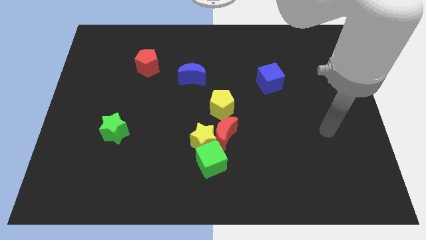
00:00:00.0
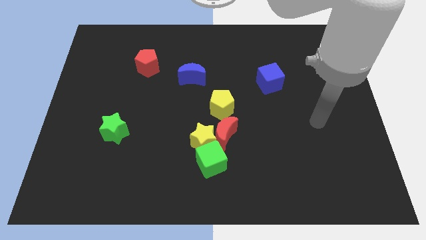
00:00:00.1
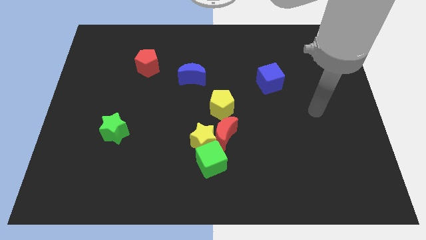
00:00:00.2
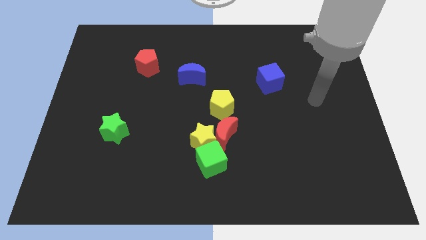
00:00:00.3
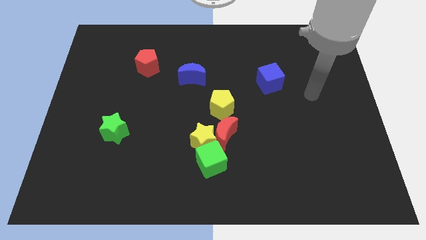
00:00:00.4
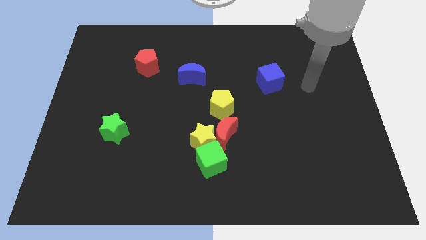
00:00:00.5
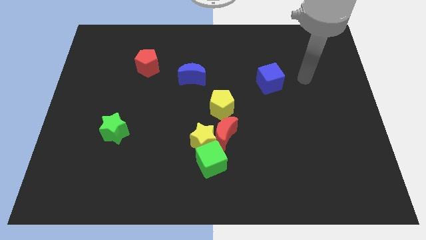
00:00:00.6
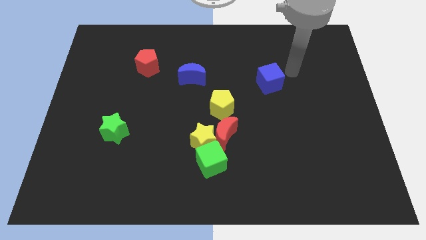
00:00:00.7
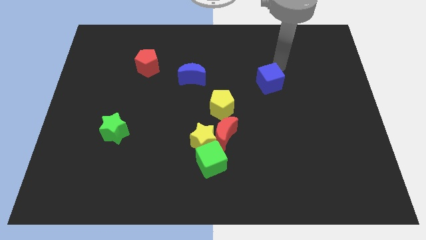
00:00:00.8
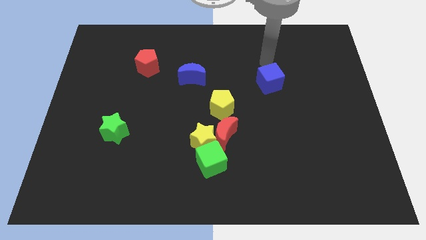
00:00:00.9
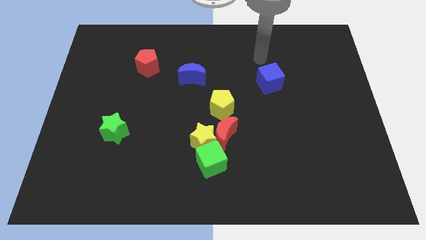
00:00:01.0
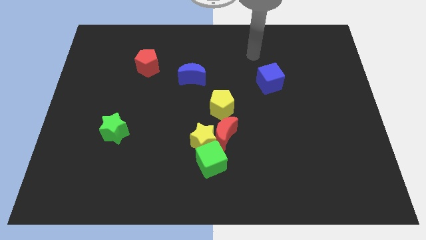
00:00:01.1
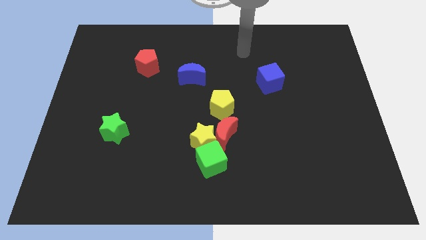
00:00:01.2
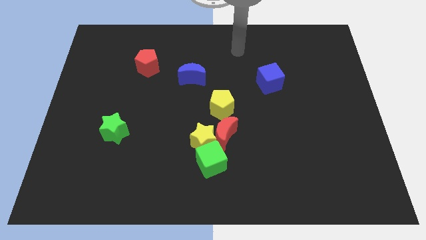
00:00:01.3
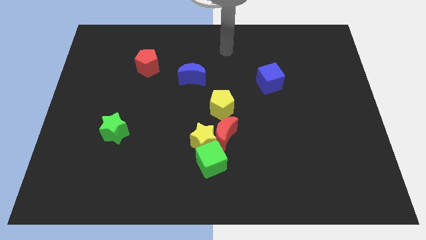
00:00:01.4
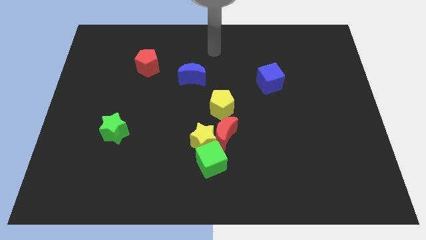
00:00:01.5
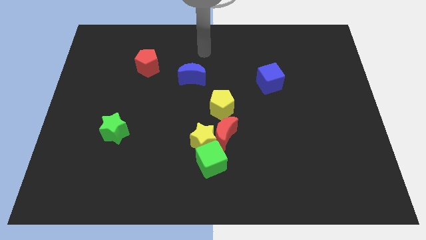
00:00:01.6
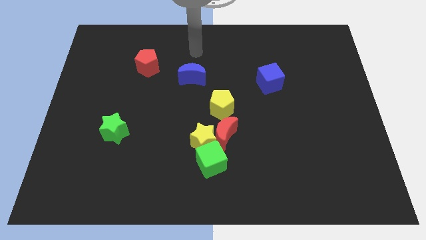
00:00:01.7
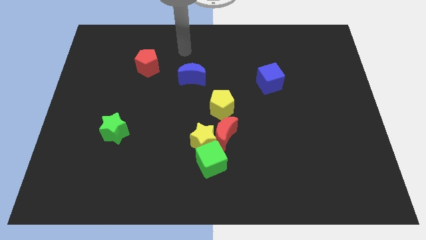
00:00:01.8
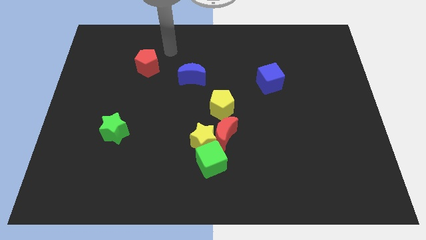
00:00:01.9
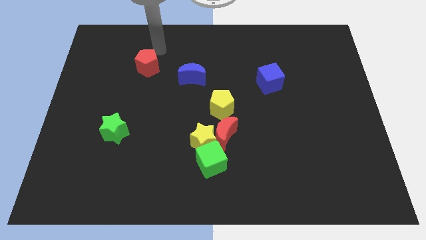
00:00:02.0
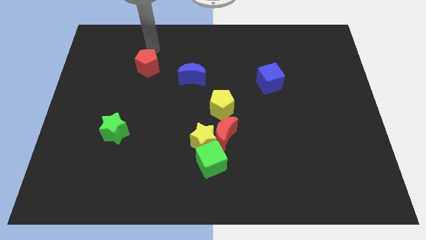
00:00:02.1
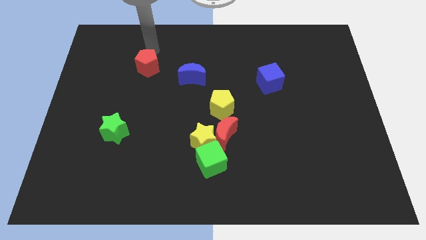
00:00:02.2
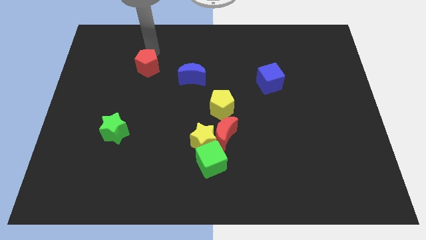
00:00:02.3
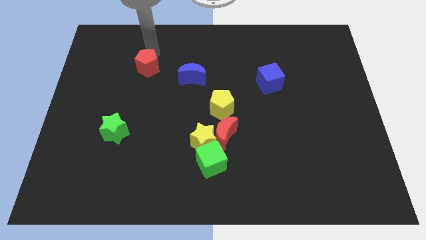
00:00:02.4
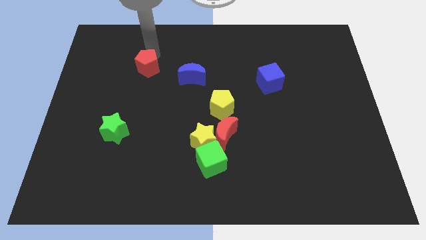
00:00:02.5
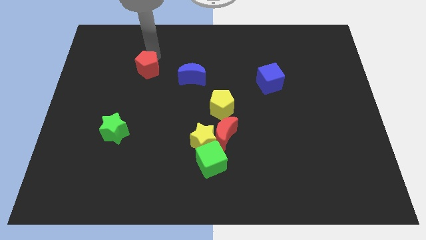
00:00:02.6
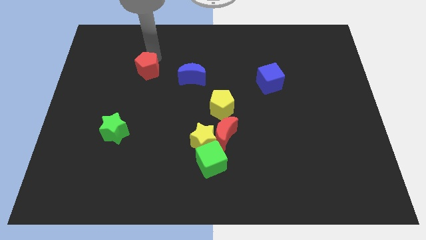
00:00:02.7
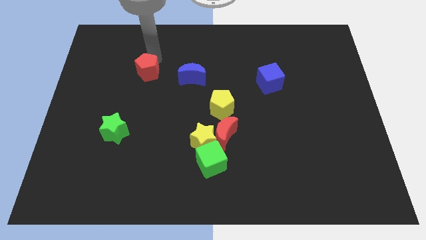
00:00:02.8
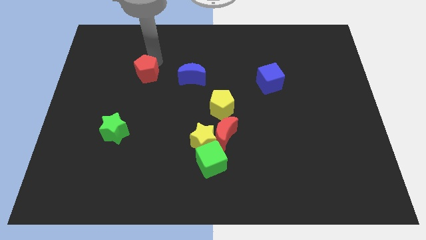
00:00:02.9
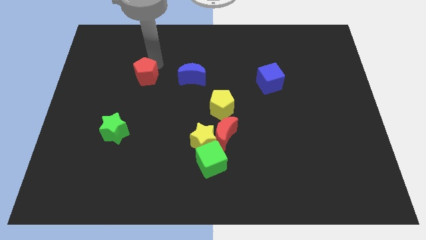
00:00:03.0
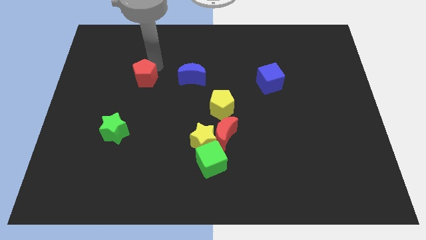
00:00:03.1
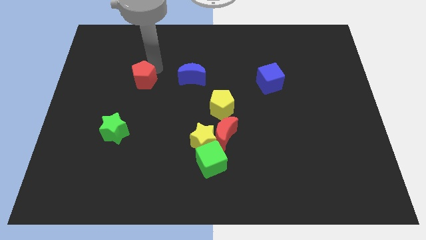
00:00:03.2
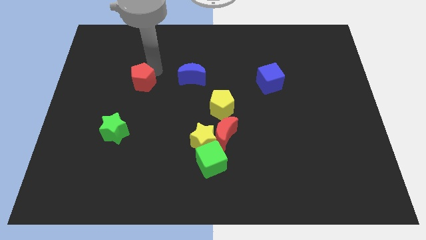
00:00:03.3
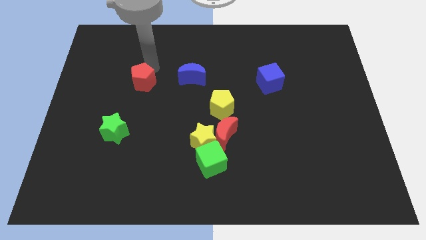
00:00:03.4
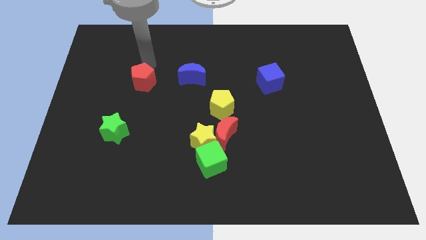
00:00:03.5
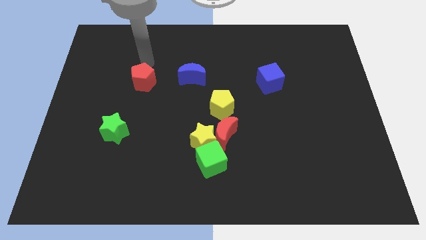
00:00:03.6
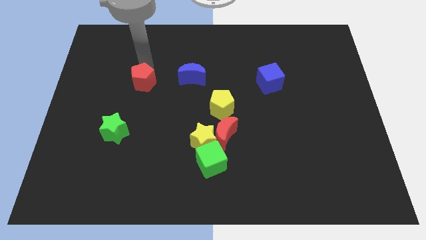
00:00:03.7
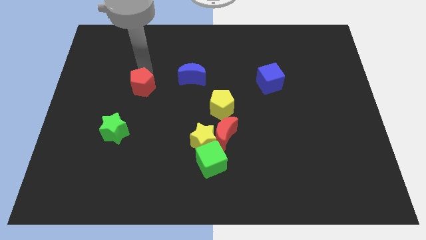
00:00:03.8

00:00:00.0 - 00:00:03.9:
slide the red pentagon down slightly

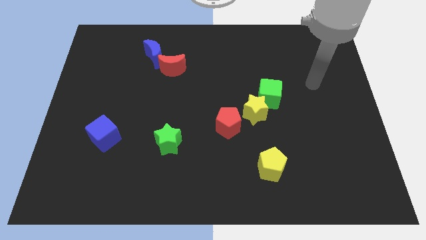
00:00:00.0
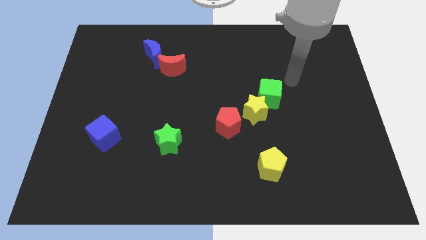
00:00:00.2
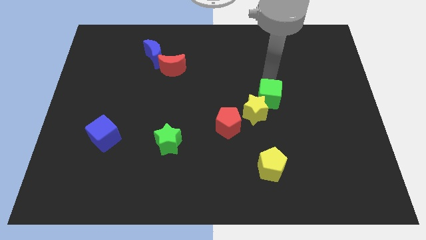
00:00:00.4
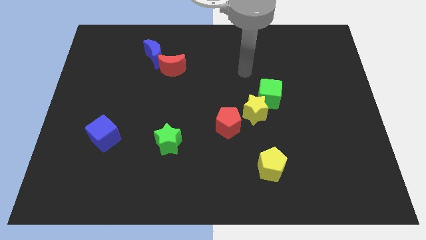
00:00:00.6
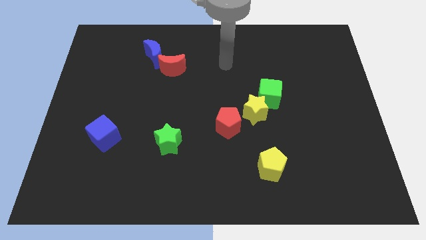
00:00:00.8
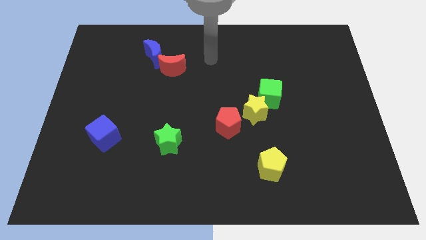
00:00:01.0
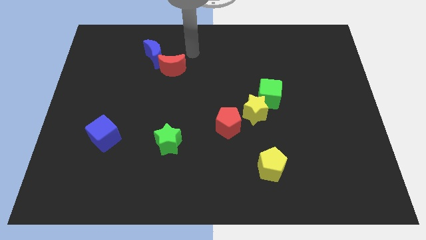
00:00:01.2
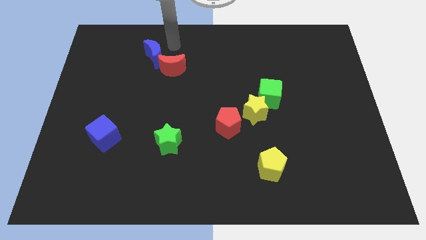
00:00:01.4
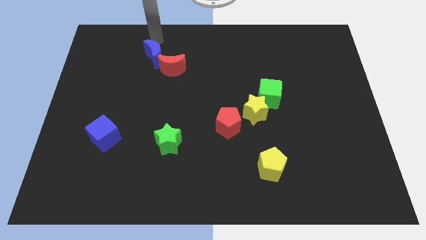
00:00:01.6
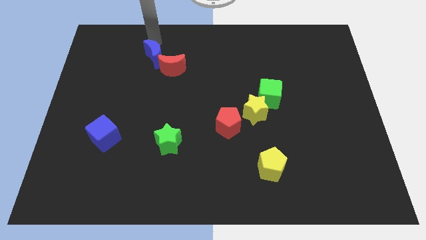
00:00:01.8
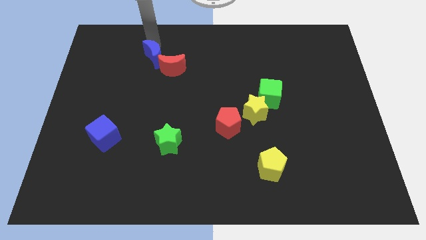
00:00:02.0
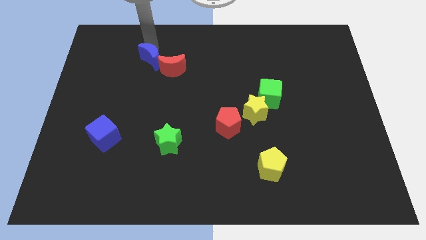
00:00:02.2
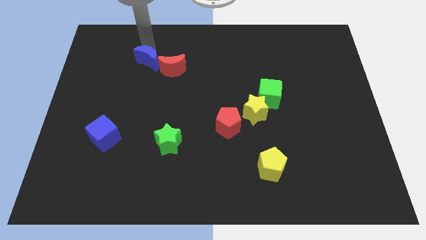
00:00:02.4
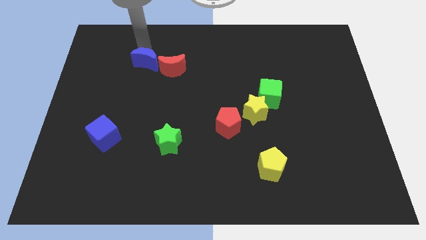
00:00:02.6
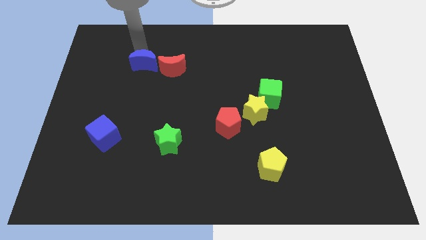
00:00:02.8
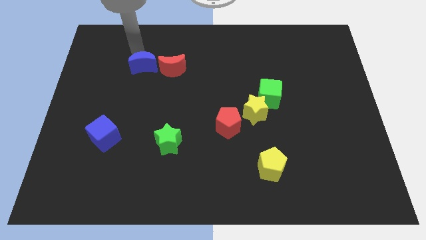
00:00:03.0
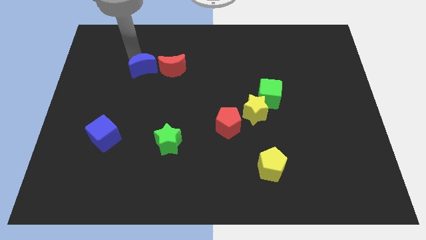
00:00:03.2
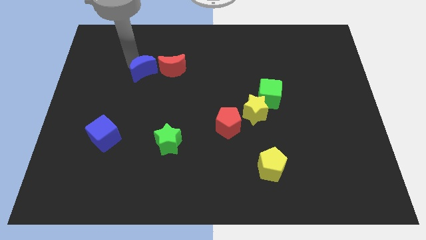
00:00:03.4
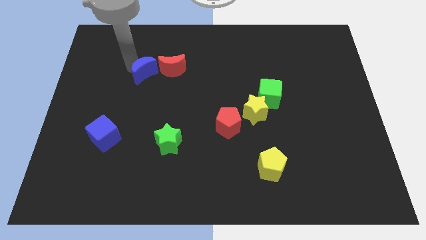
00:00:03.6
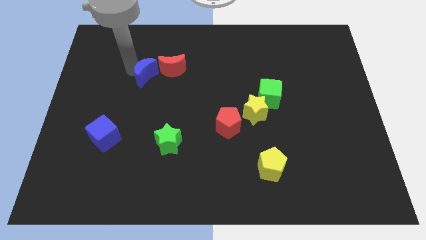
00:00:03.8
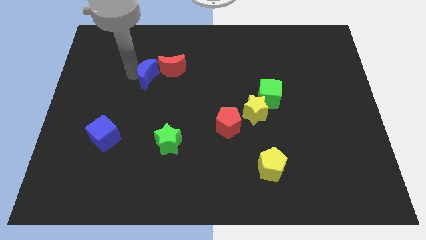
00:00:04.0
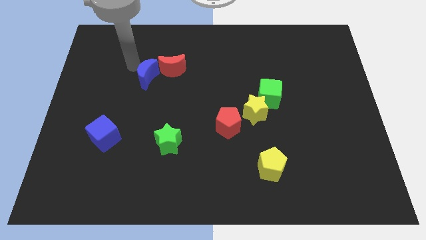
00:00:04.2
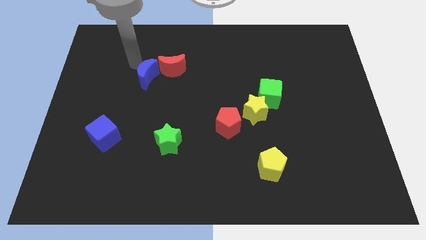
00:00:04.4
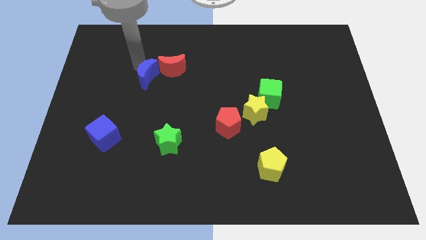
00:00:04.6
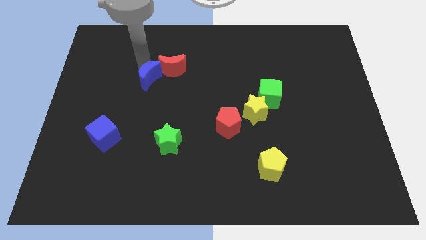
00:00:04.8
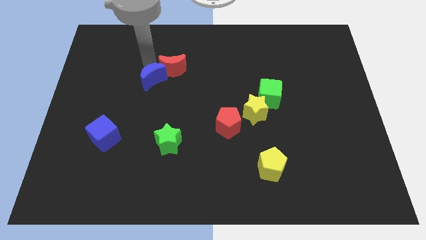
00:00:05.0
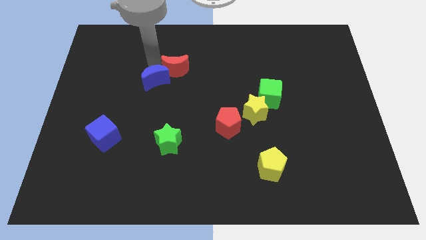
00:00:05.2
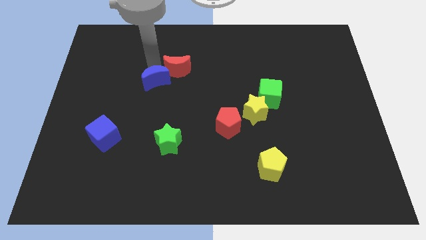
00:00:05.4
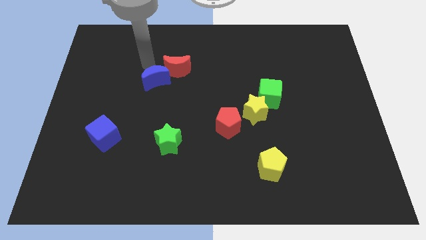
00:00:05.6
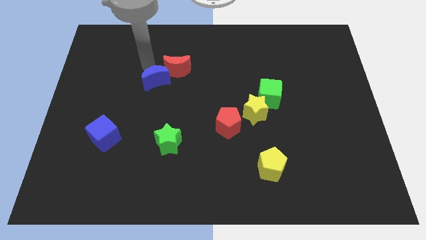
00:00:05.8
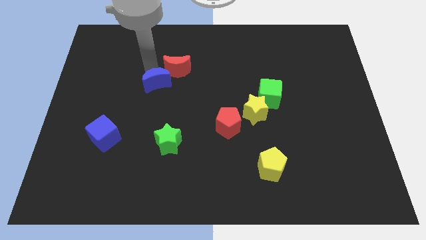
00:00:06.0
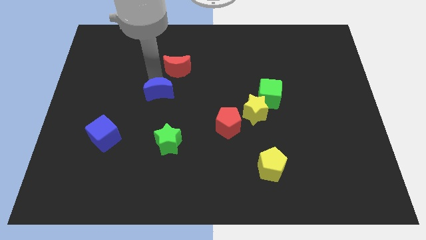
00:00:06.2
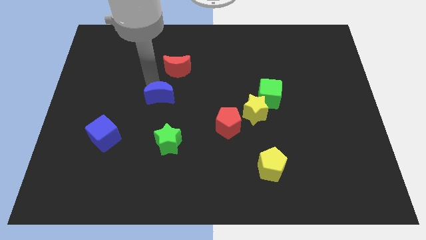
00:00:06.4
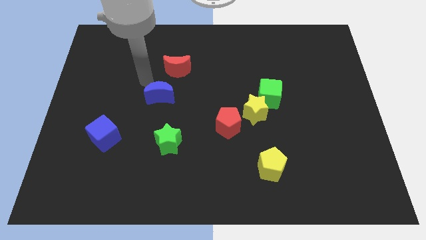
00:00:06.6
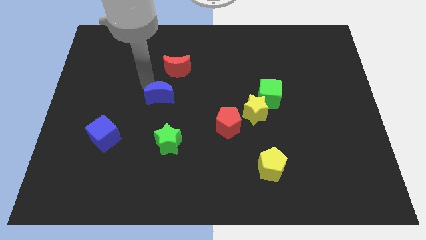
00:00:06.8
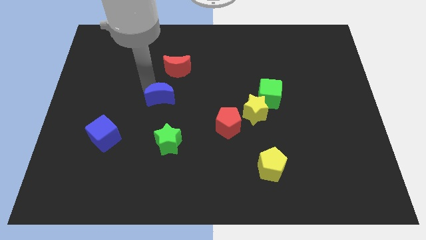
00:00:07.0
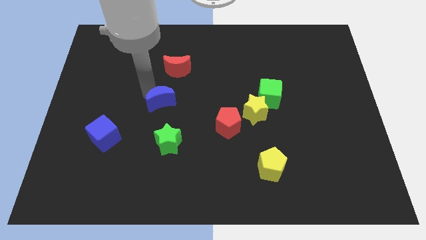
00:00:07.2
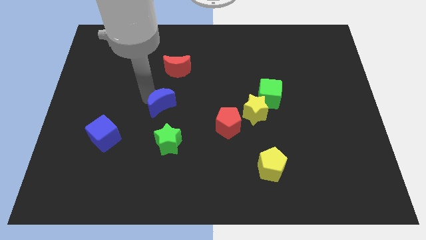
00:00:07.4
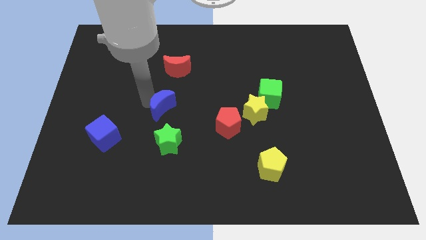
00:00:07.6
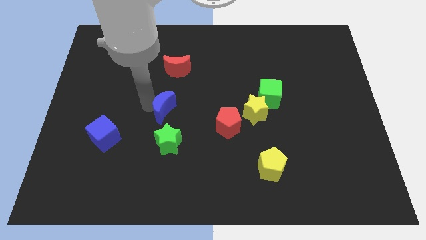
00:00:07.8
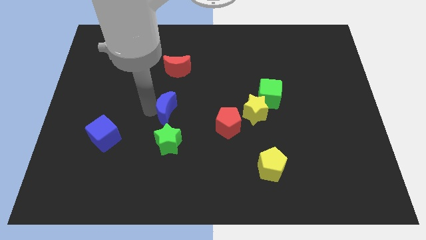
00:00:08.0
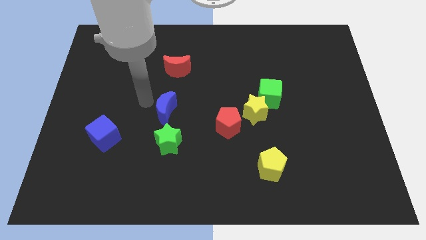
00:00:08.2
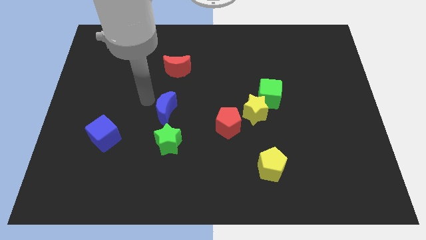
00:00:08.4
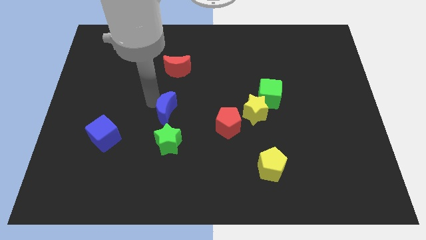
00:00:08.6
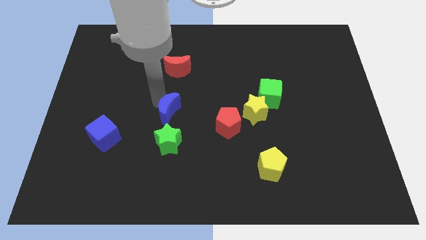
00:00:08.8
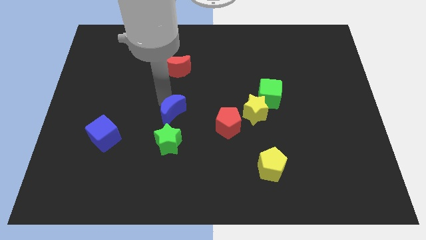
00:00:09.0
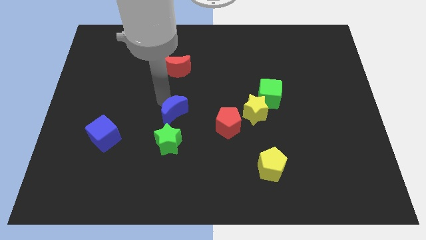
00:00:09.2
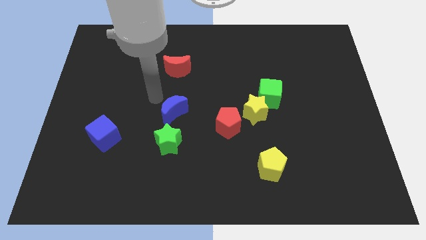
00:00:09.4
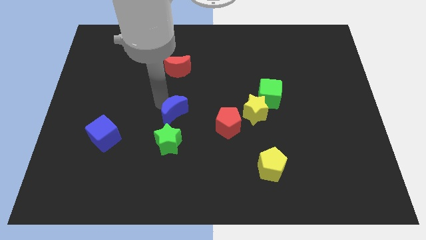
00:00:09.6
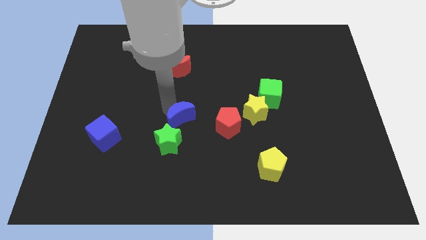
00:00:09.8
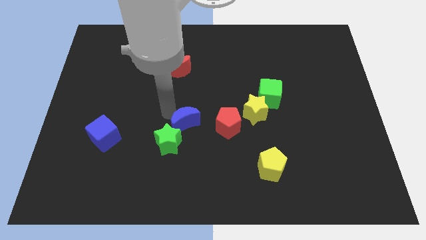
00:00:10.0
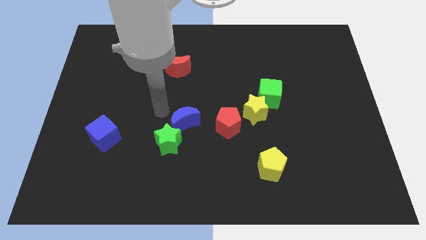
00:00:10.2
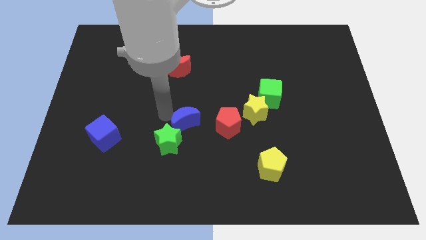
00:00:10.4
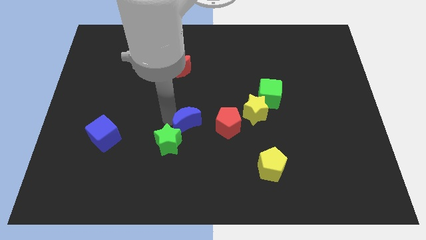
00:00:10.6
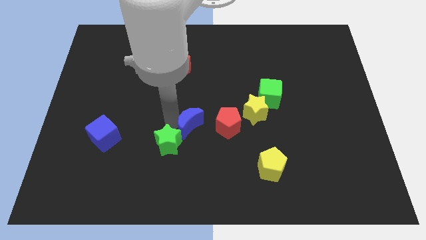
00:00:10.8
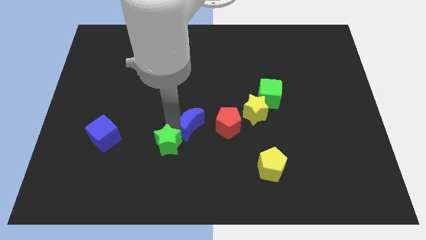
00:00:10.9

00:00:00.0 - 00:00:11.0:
move the blue moon down and then to the right
